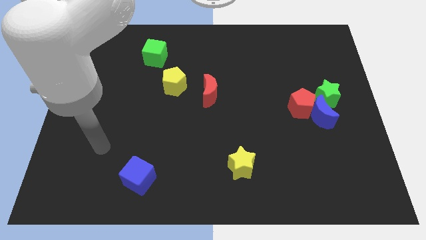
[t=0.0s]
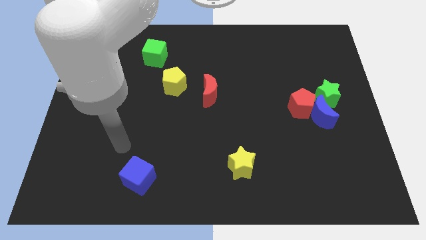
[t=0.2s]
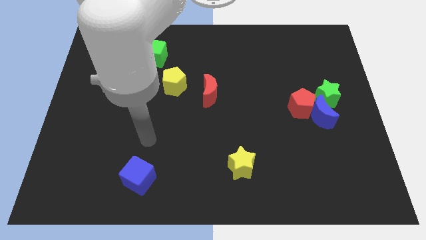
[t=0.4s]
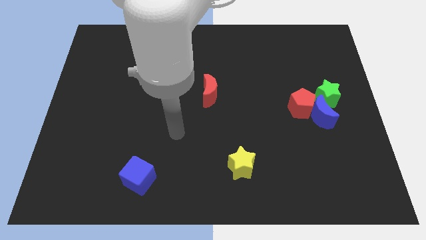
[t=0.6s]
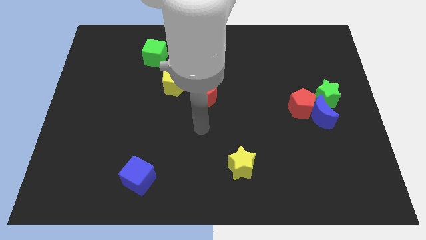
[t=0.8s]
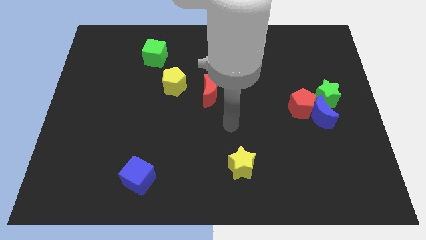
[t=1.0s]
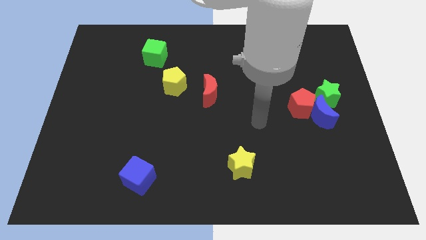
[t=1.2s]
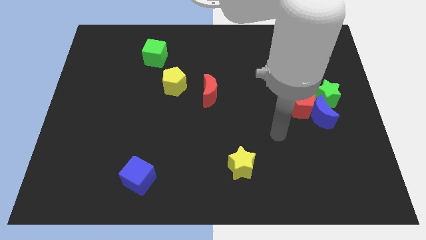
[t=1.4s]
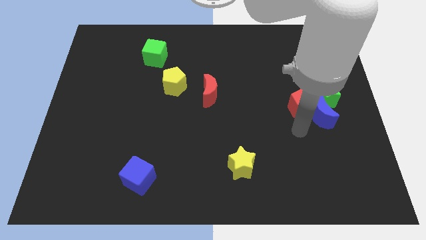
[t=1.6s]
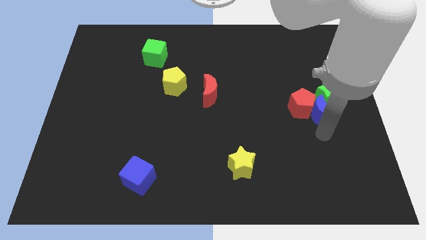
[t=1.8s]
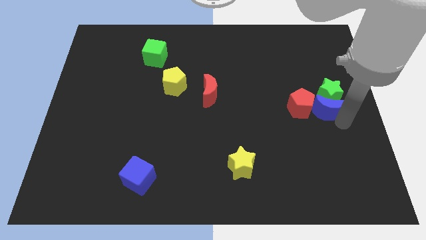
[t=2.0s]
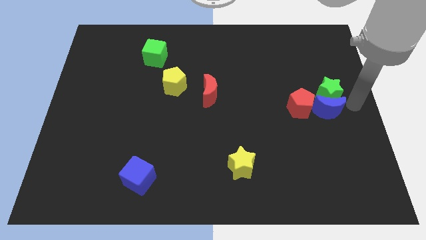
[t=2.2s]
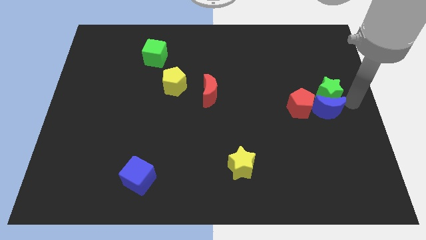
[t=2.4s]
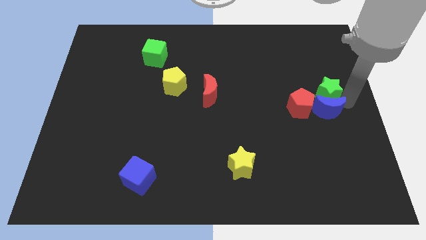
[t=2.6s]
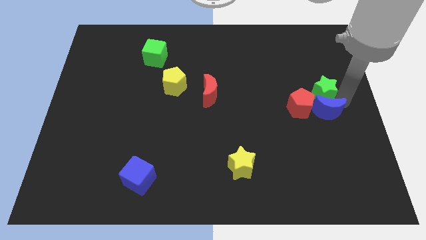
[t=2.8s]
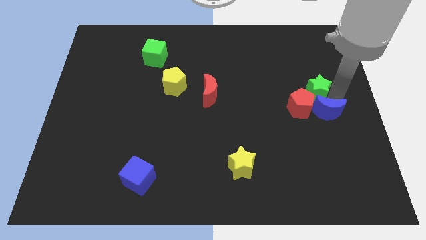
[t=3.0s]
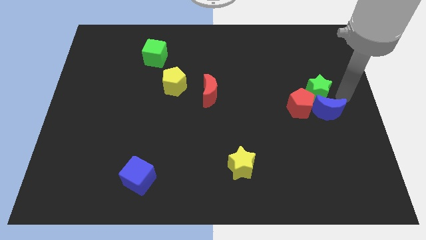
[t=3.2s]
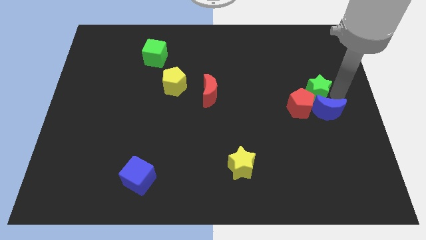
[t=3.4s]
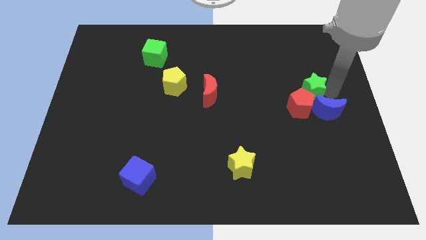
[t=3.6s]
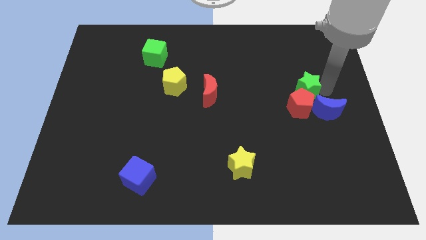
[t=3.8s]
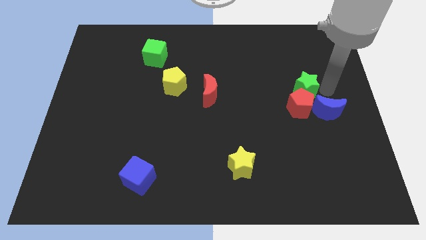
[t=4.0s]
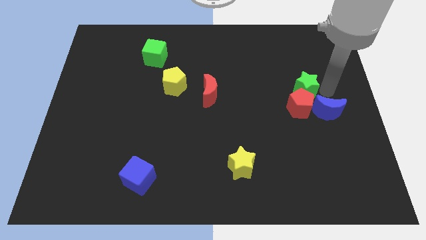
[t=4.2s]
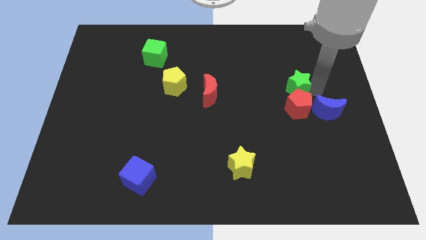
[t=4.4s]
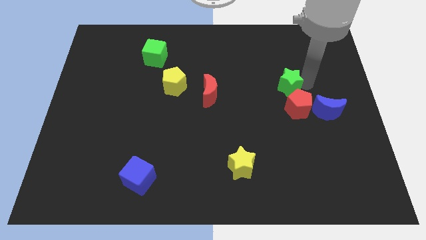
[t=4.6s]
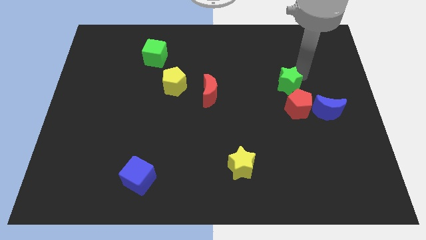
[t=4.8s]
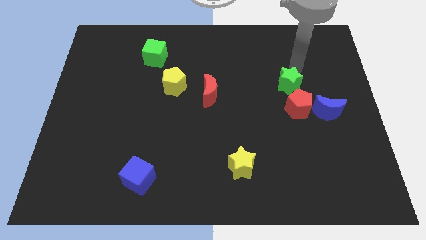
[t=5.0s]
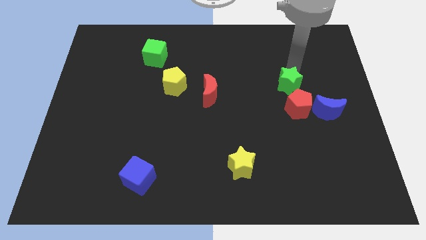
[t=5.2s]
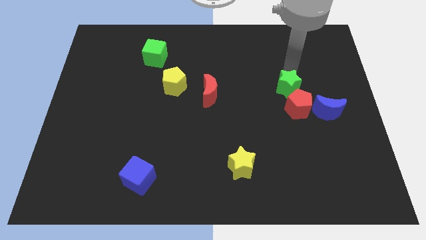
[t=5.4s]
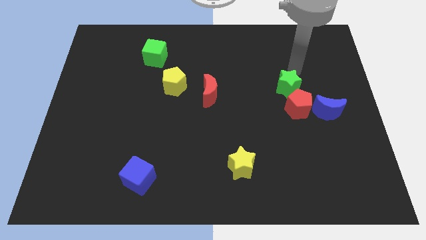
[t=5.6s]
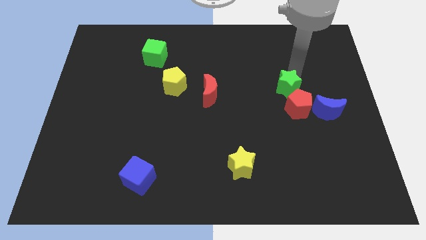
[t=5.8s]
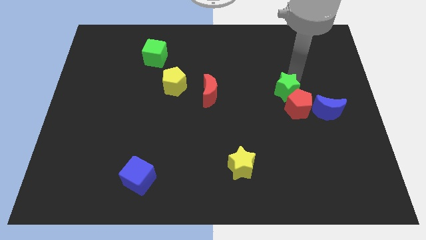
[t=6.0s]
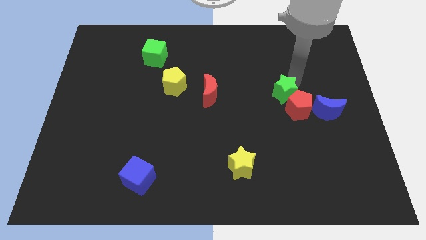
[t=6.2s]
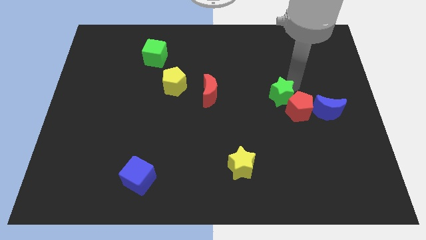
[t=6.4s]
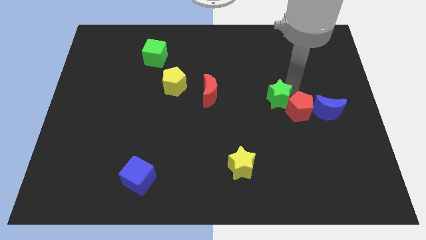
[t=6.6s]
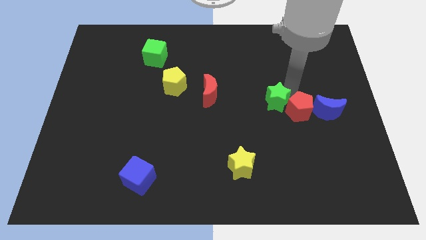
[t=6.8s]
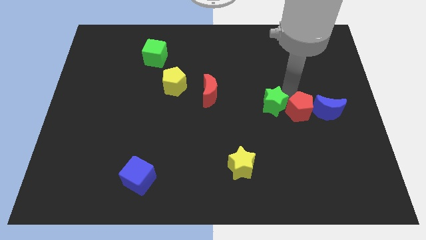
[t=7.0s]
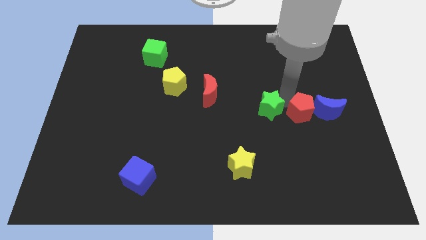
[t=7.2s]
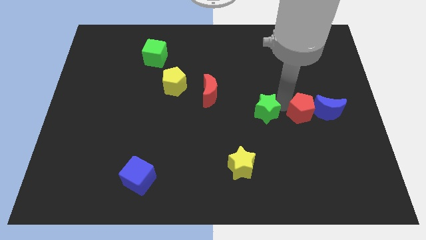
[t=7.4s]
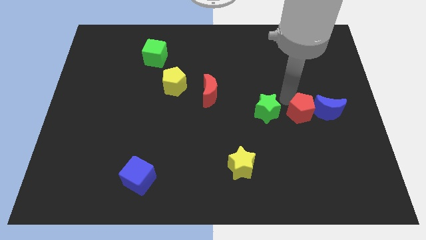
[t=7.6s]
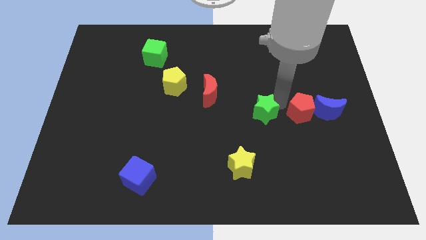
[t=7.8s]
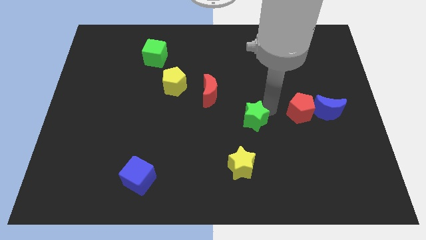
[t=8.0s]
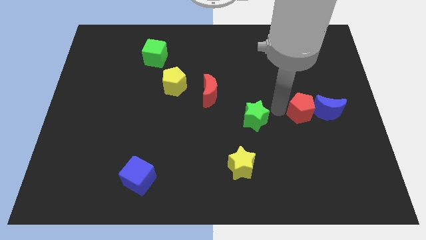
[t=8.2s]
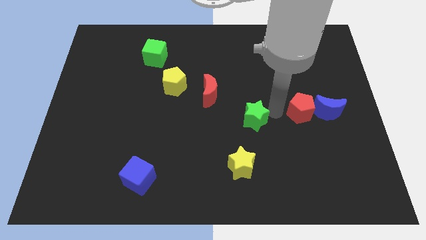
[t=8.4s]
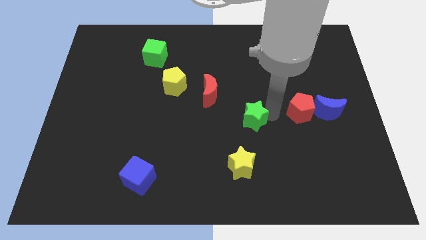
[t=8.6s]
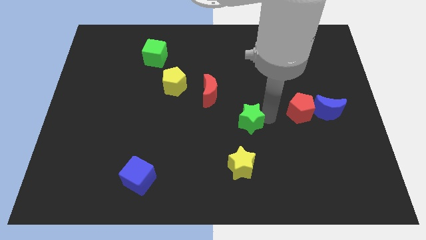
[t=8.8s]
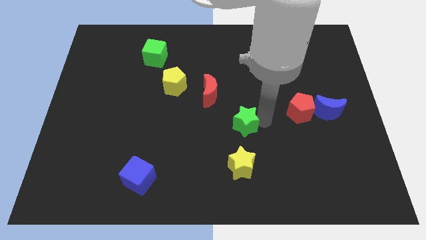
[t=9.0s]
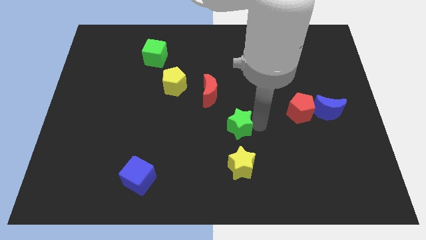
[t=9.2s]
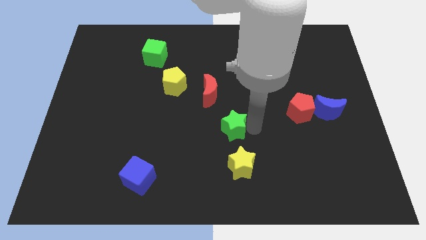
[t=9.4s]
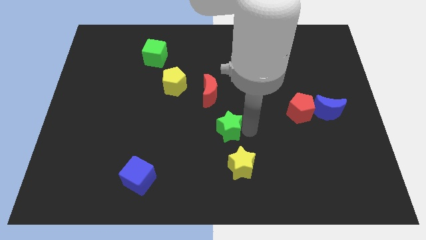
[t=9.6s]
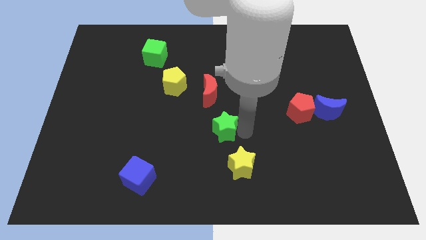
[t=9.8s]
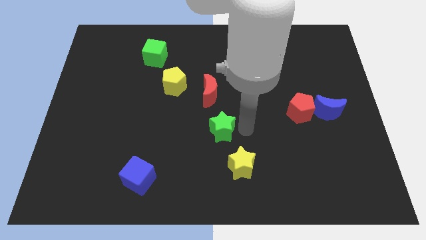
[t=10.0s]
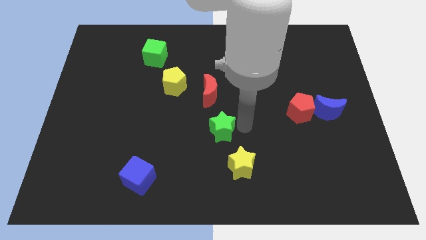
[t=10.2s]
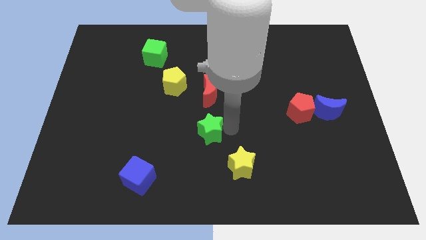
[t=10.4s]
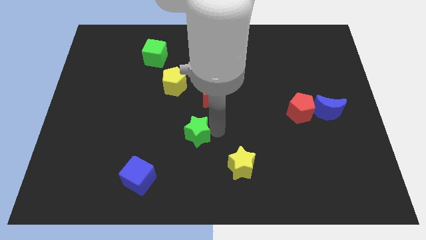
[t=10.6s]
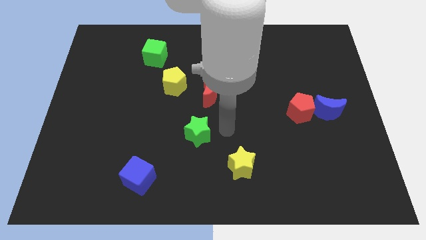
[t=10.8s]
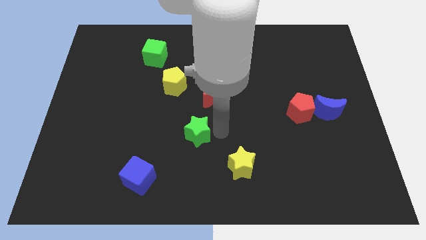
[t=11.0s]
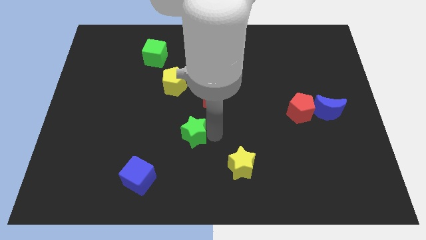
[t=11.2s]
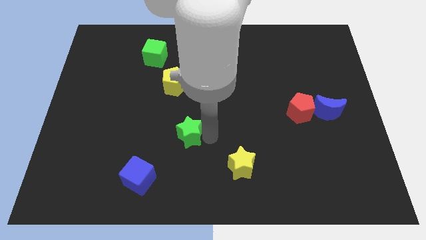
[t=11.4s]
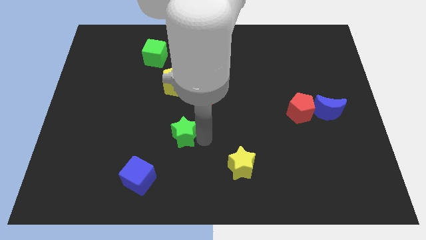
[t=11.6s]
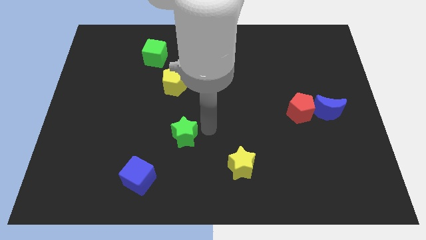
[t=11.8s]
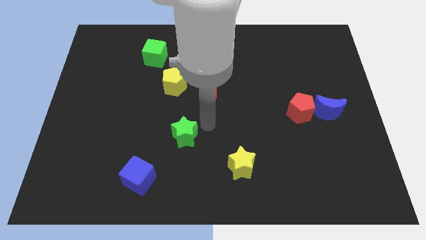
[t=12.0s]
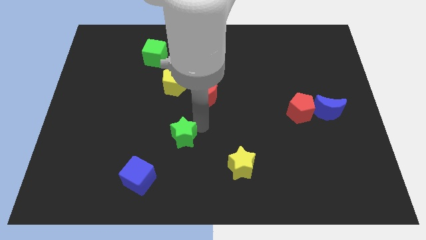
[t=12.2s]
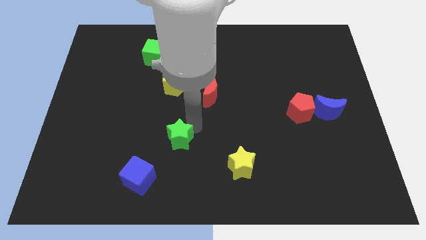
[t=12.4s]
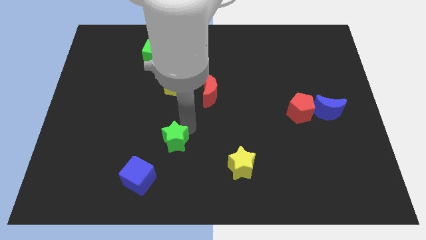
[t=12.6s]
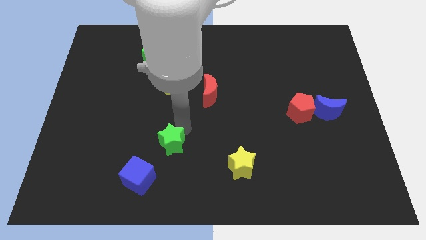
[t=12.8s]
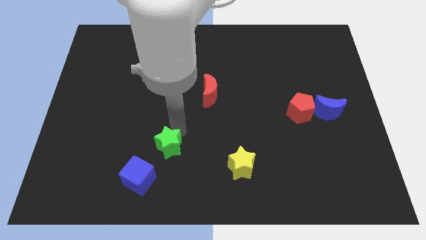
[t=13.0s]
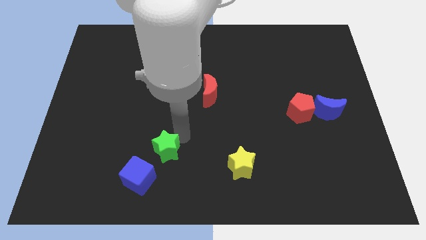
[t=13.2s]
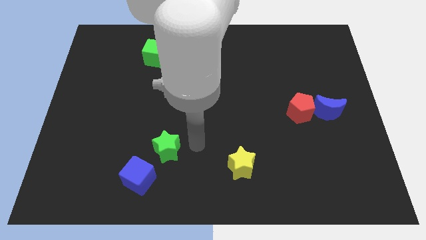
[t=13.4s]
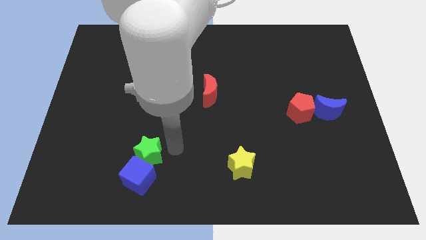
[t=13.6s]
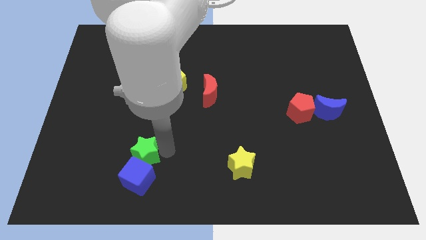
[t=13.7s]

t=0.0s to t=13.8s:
put the green star diagonally up and to the left of the blue cube
